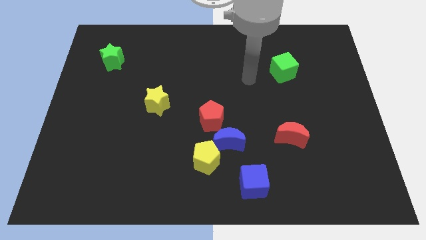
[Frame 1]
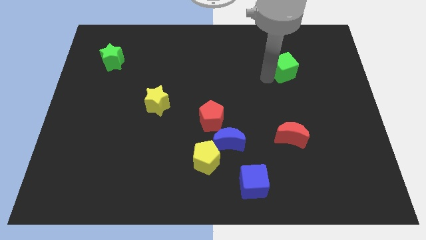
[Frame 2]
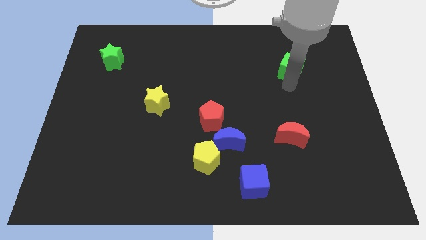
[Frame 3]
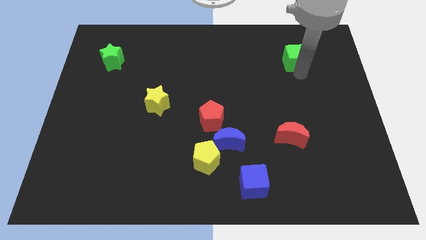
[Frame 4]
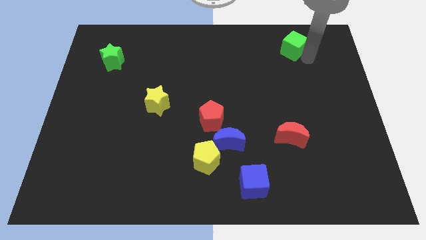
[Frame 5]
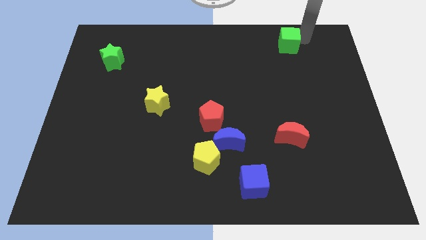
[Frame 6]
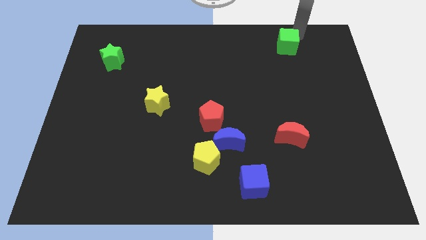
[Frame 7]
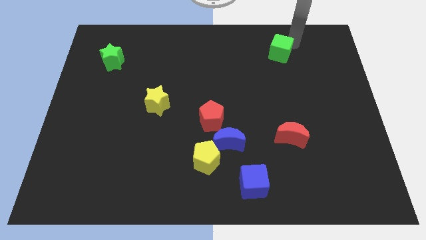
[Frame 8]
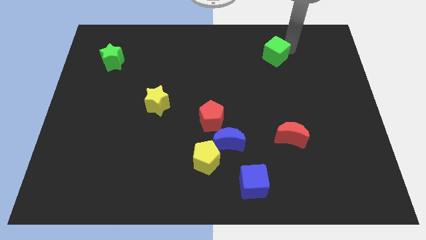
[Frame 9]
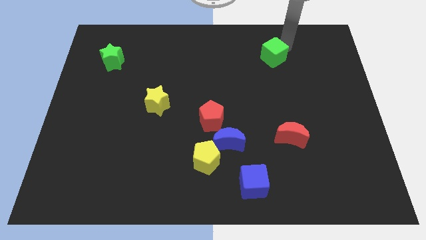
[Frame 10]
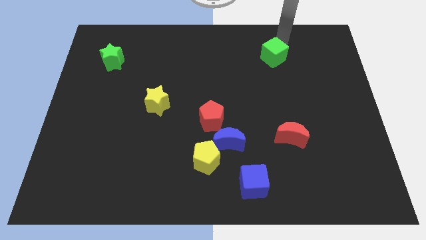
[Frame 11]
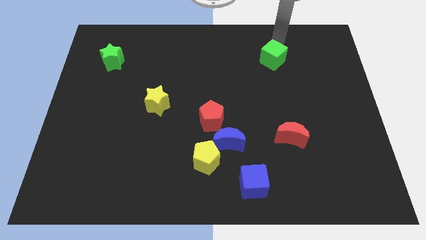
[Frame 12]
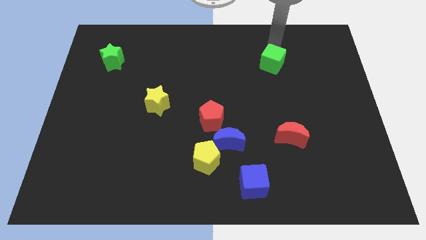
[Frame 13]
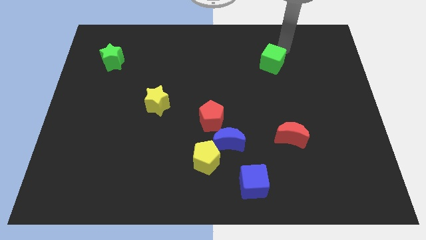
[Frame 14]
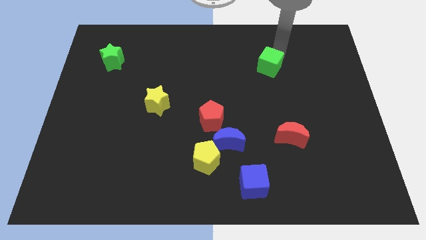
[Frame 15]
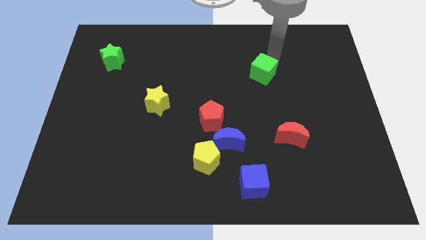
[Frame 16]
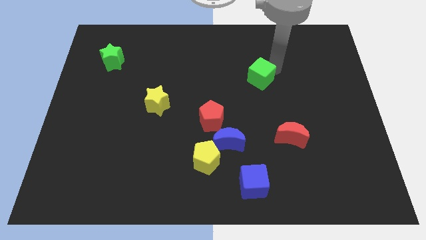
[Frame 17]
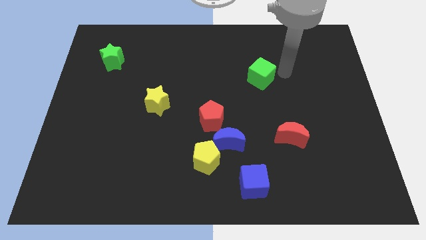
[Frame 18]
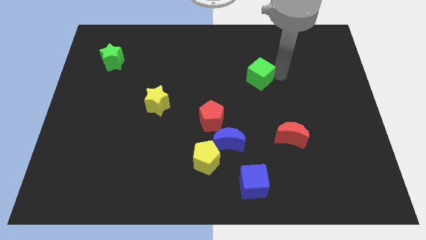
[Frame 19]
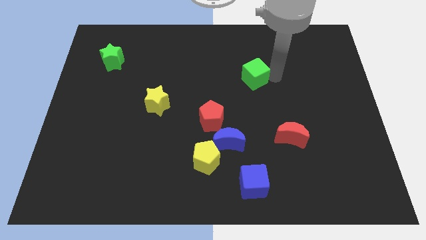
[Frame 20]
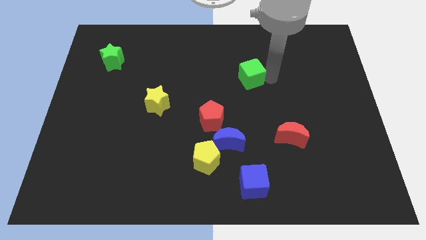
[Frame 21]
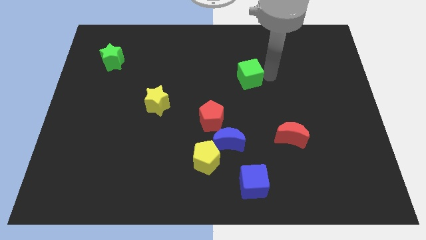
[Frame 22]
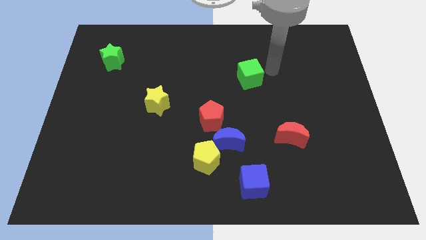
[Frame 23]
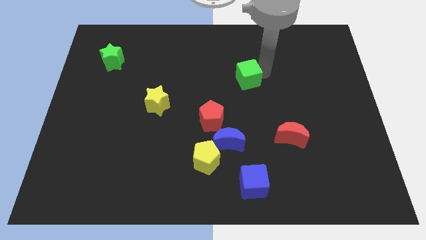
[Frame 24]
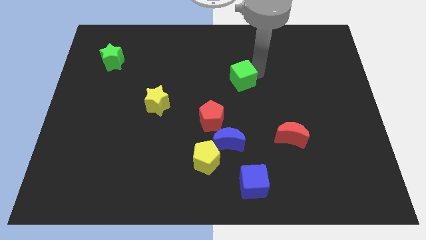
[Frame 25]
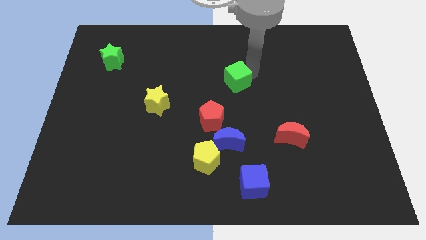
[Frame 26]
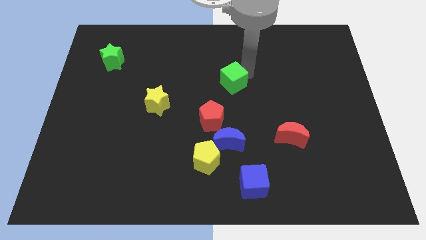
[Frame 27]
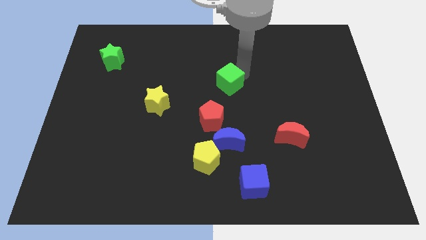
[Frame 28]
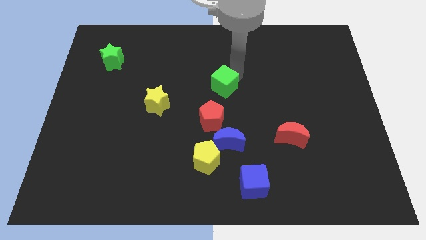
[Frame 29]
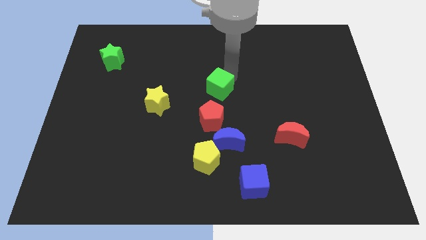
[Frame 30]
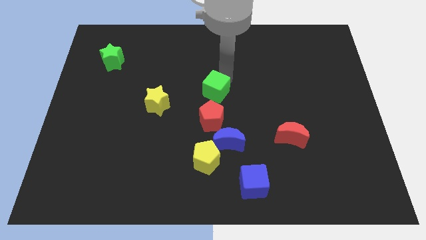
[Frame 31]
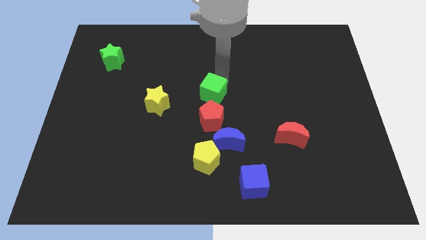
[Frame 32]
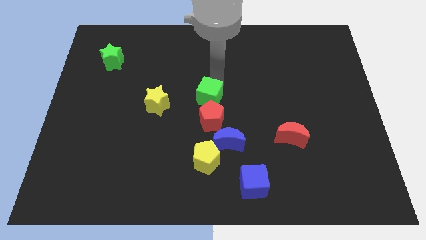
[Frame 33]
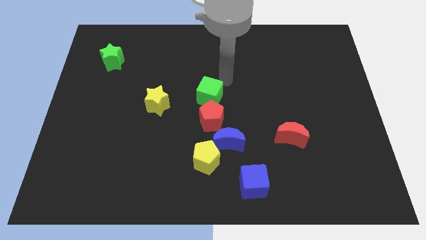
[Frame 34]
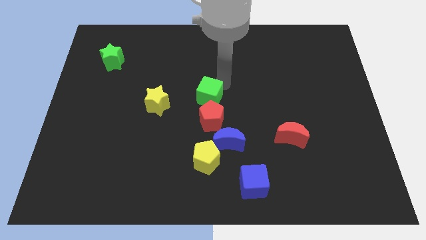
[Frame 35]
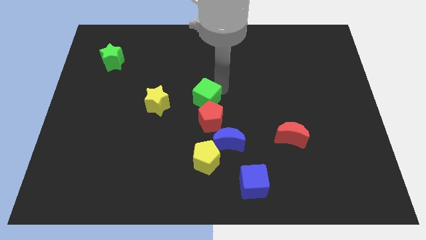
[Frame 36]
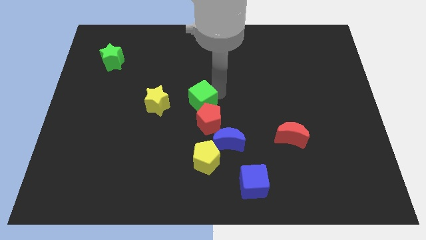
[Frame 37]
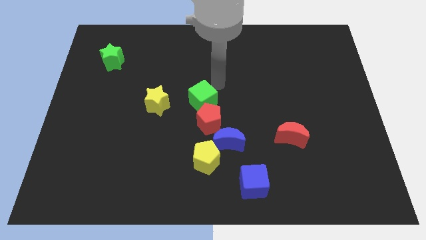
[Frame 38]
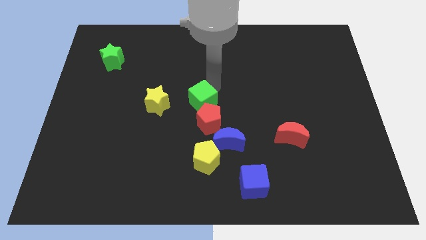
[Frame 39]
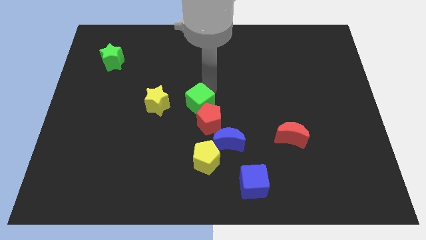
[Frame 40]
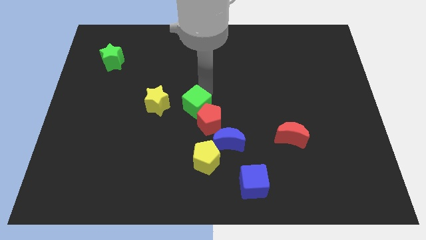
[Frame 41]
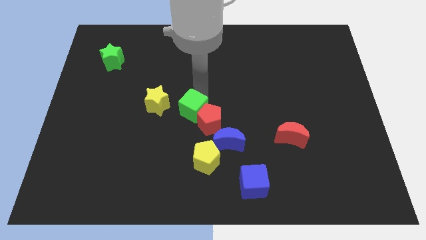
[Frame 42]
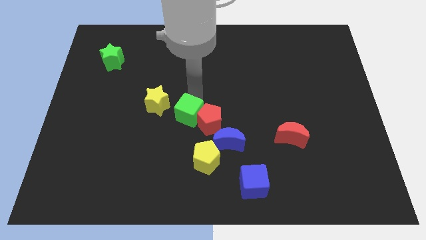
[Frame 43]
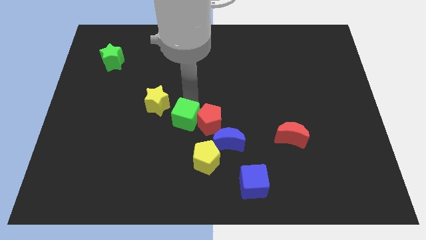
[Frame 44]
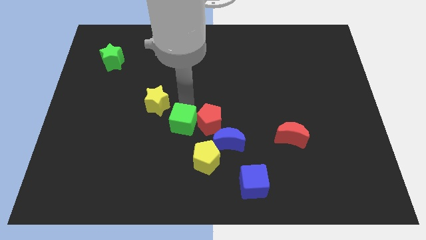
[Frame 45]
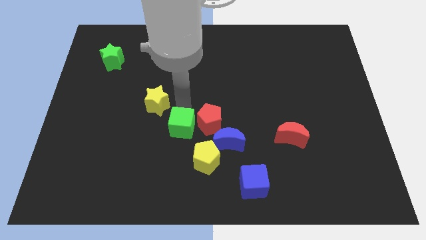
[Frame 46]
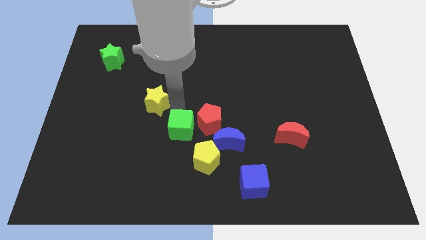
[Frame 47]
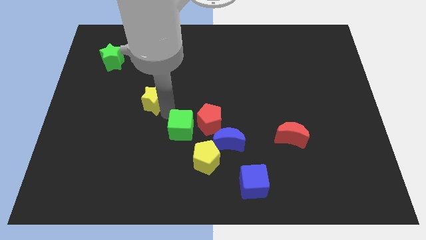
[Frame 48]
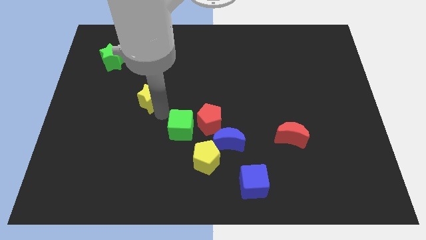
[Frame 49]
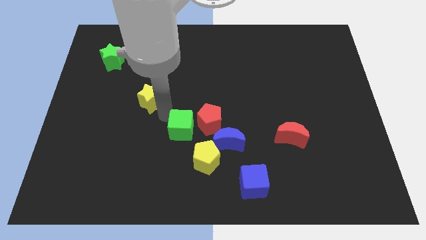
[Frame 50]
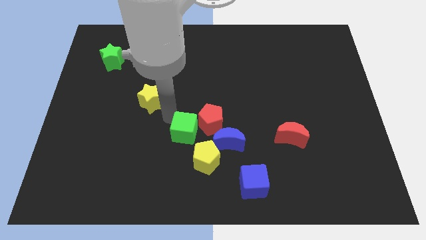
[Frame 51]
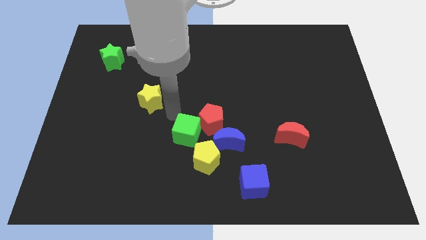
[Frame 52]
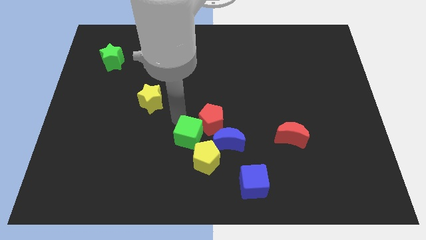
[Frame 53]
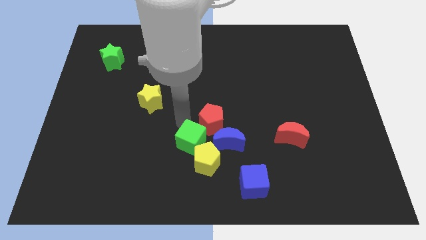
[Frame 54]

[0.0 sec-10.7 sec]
put the green cube close to the yellow pentagon

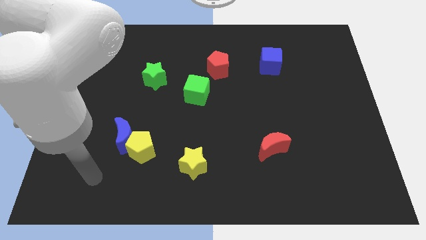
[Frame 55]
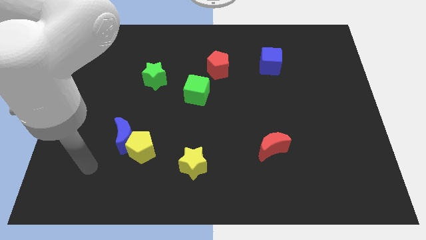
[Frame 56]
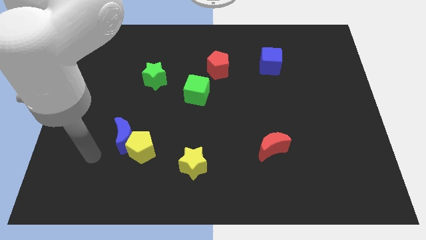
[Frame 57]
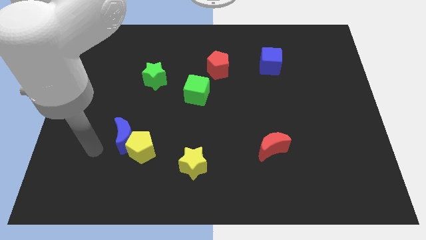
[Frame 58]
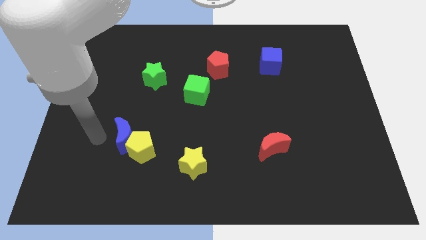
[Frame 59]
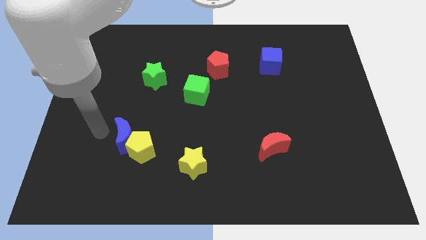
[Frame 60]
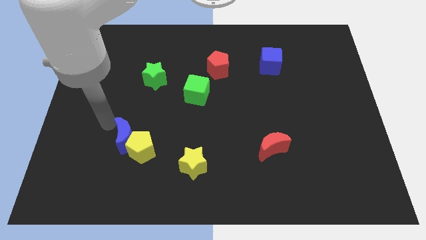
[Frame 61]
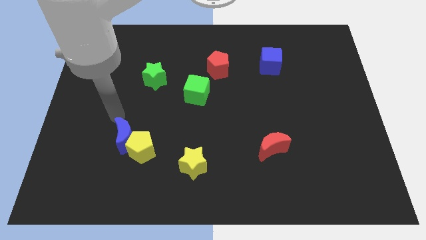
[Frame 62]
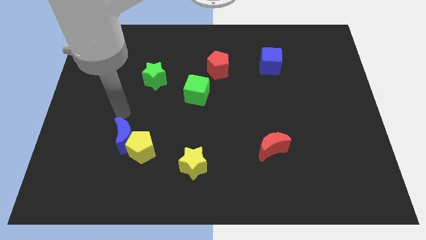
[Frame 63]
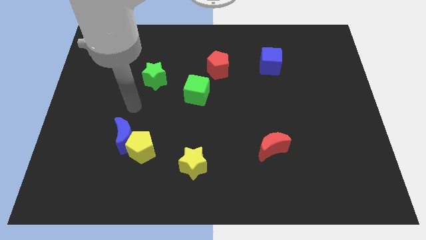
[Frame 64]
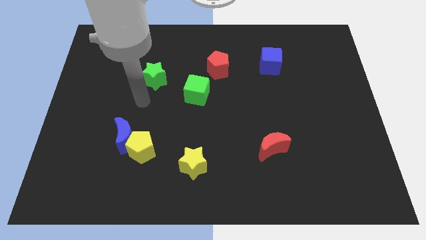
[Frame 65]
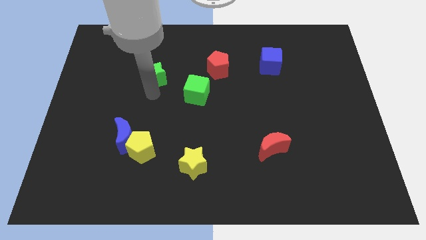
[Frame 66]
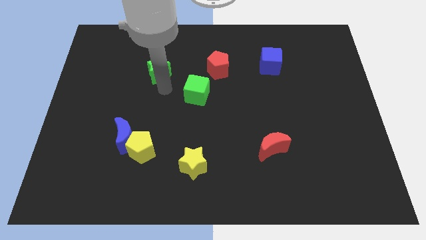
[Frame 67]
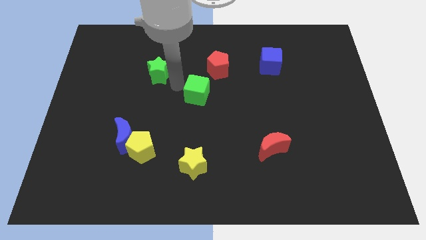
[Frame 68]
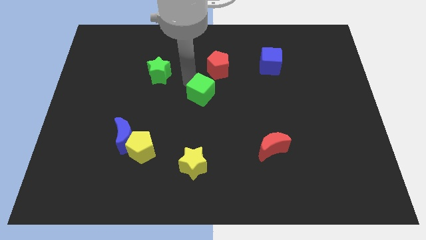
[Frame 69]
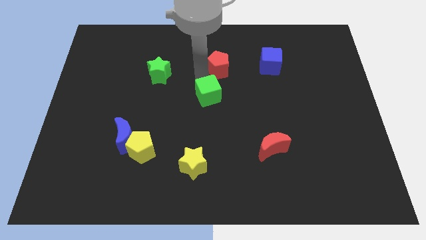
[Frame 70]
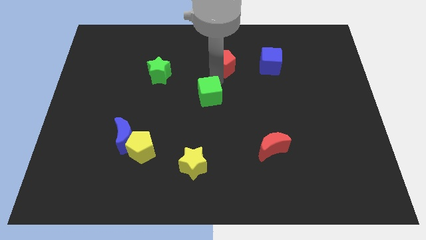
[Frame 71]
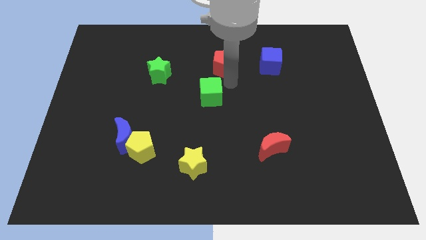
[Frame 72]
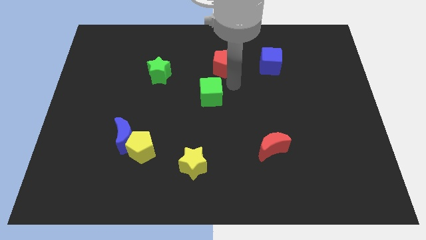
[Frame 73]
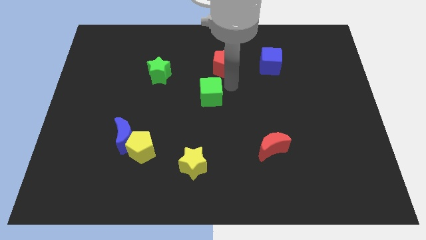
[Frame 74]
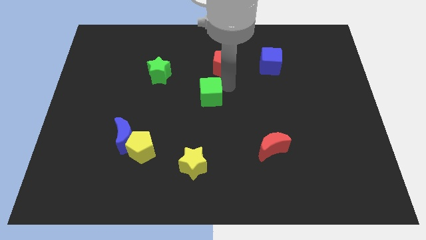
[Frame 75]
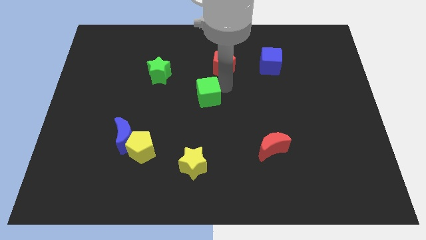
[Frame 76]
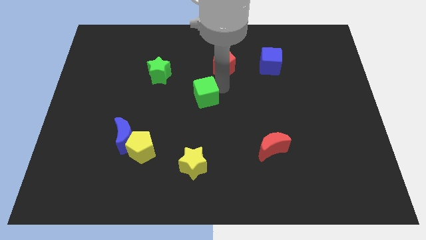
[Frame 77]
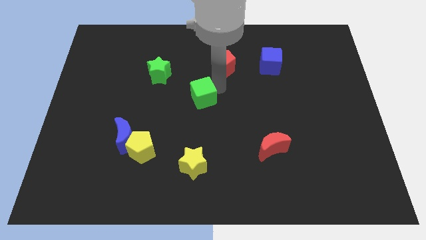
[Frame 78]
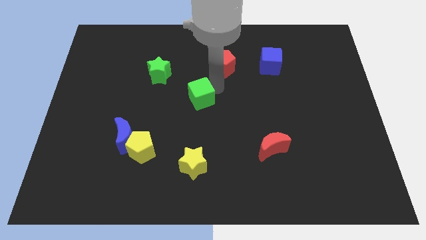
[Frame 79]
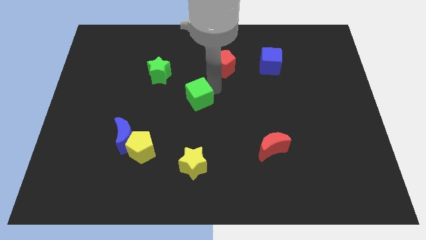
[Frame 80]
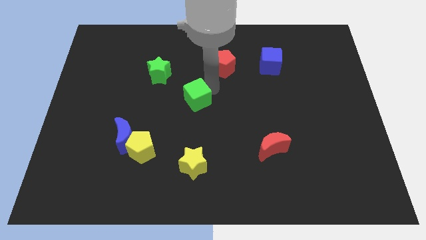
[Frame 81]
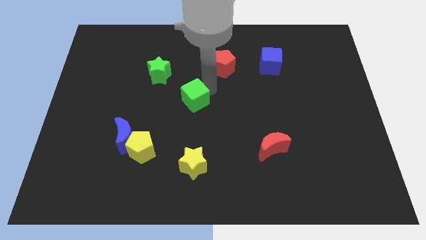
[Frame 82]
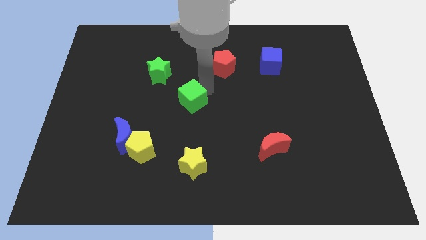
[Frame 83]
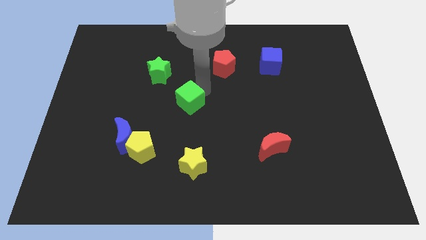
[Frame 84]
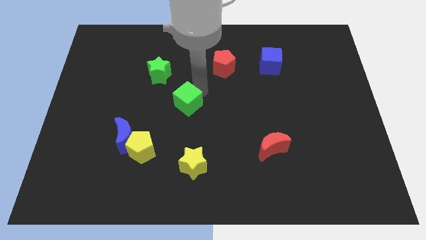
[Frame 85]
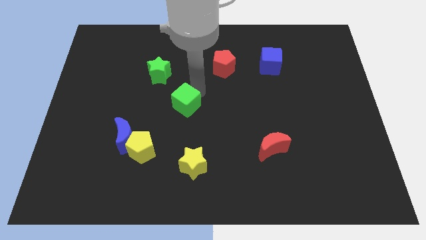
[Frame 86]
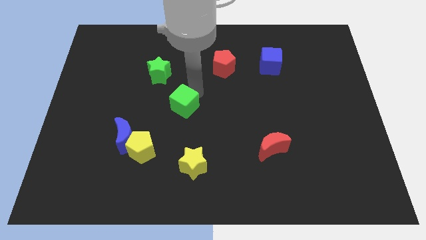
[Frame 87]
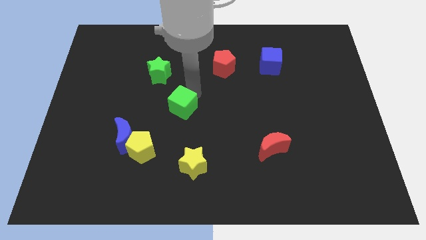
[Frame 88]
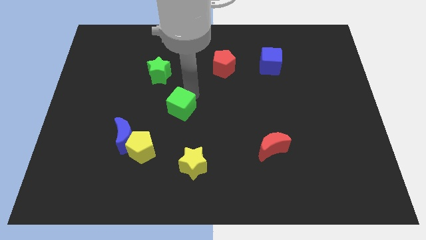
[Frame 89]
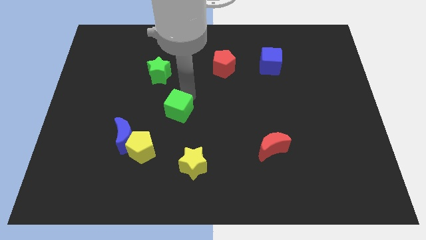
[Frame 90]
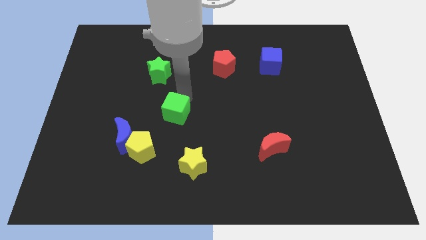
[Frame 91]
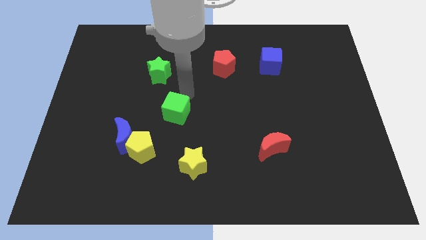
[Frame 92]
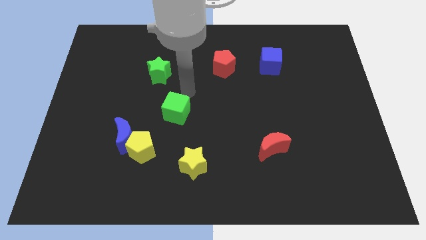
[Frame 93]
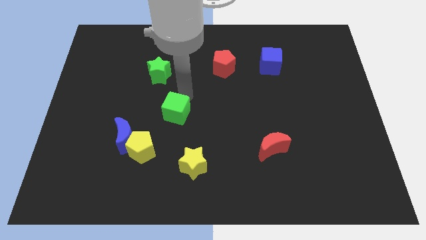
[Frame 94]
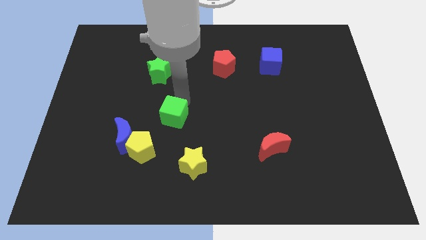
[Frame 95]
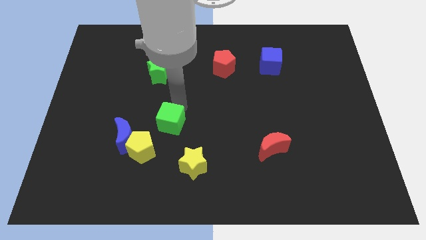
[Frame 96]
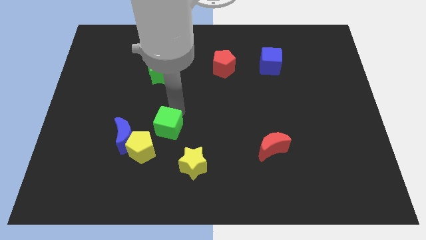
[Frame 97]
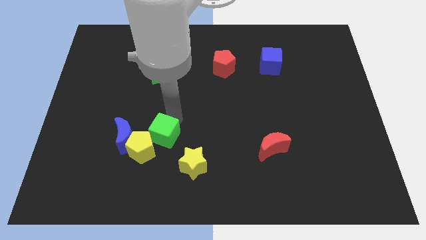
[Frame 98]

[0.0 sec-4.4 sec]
push the green cube towards the yellow pentagon
